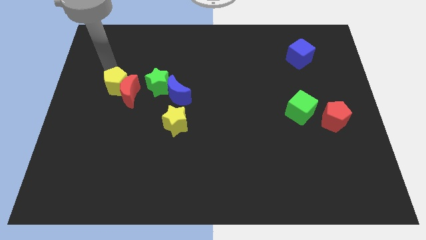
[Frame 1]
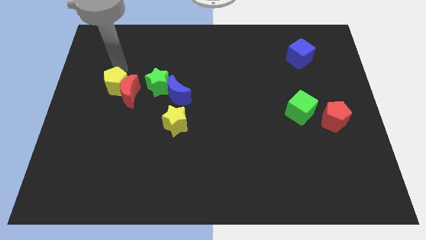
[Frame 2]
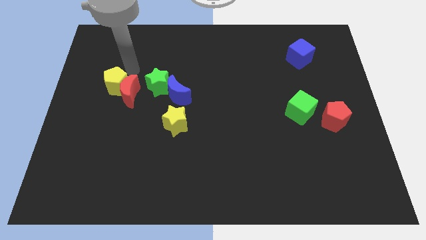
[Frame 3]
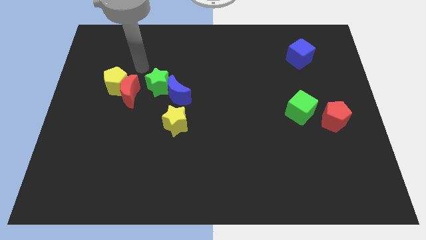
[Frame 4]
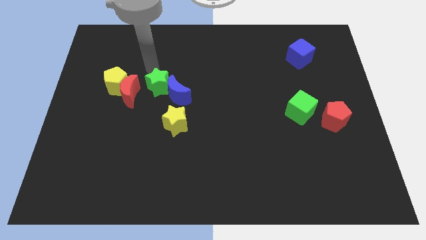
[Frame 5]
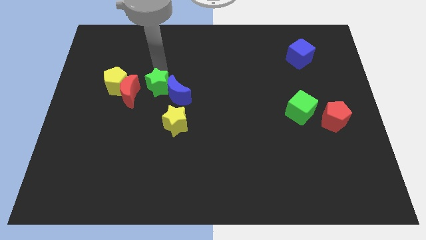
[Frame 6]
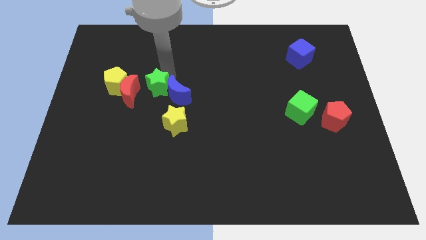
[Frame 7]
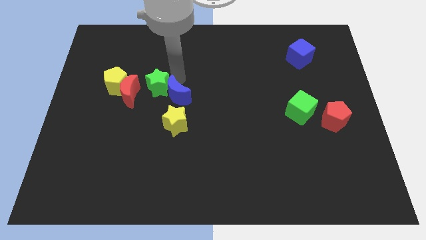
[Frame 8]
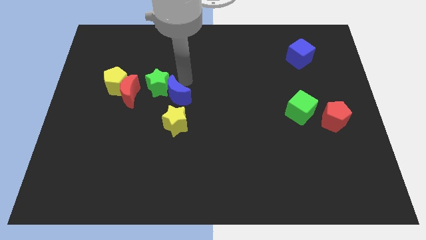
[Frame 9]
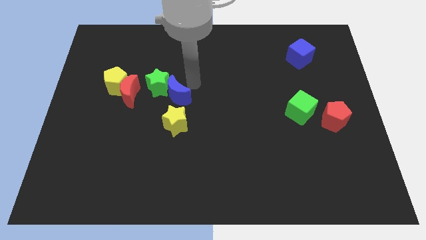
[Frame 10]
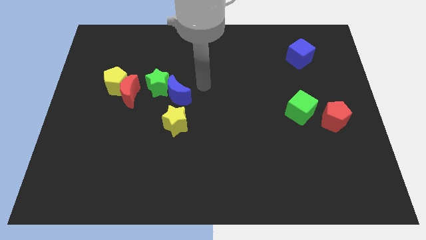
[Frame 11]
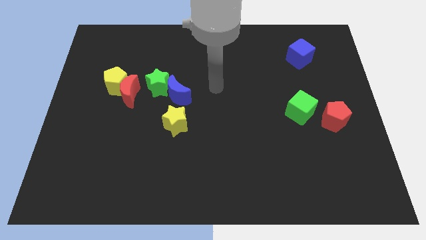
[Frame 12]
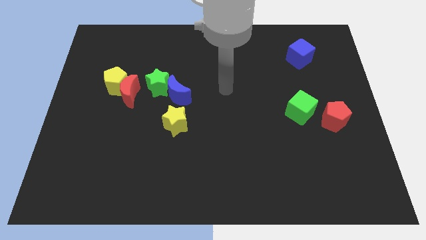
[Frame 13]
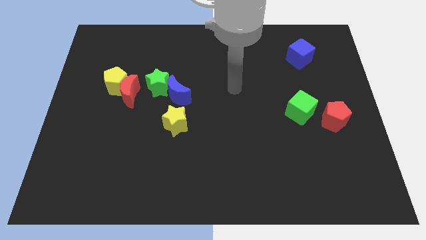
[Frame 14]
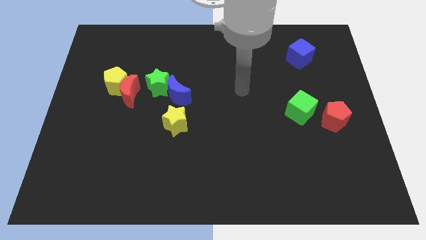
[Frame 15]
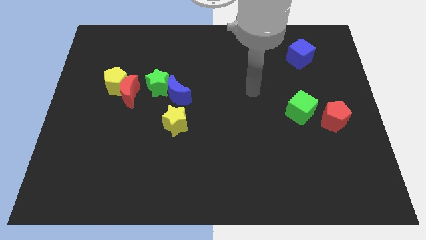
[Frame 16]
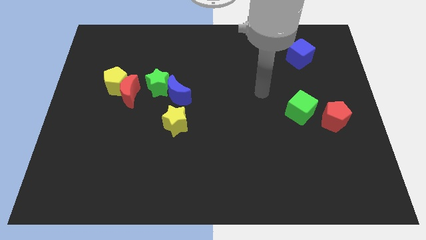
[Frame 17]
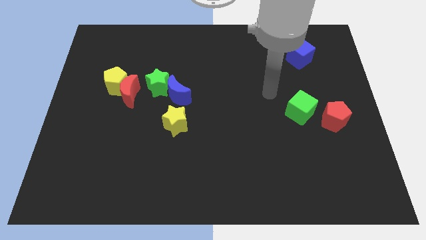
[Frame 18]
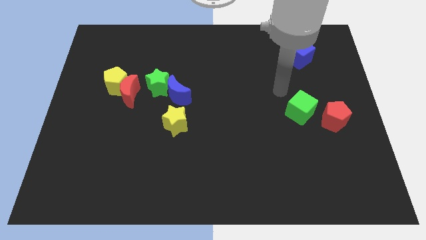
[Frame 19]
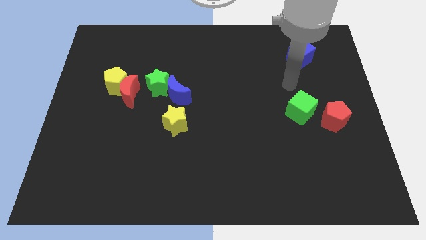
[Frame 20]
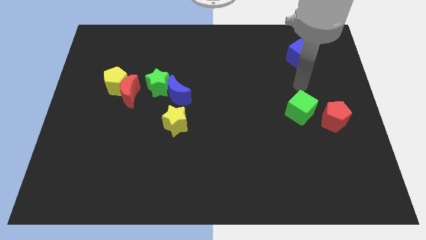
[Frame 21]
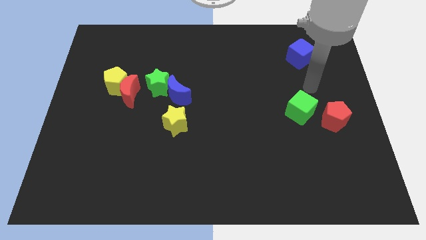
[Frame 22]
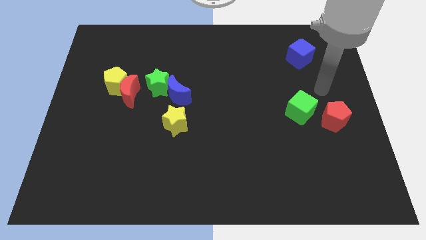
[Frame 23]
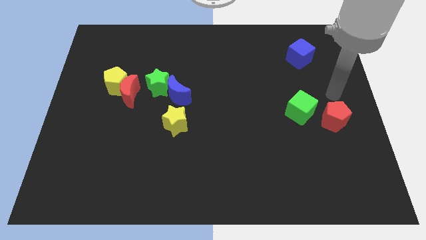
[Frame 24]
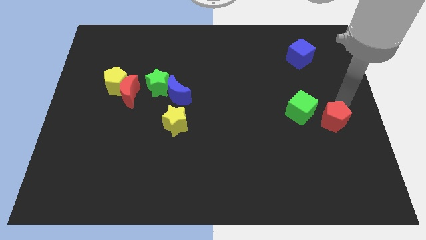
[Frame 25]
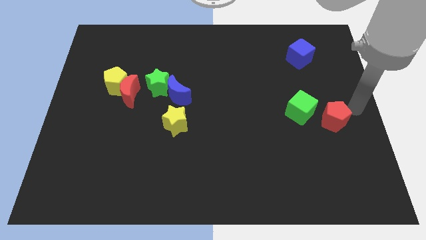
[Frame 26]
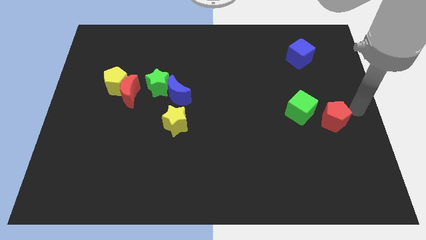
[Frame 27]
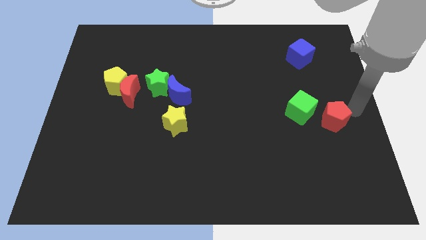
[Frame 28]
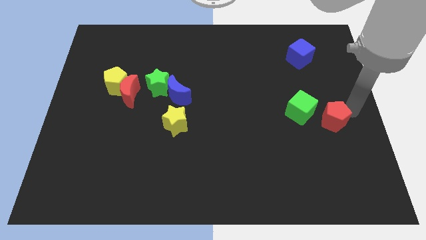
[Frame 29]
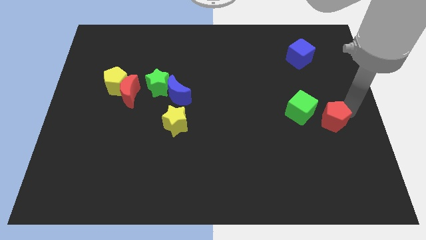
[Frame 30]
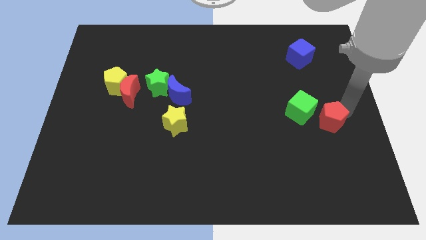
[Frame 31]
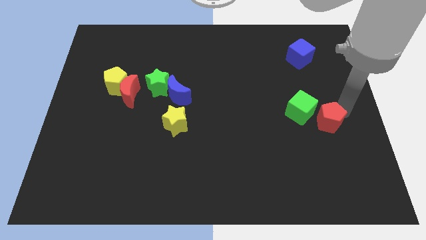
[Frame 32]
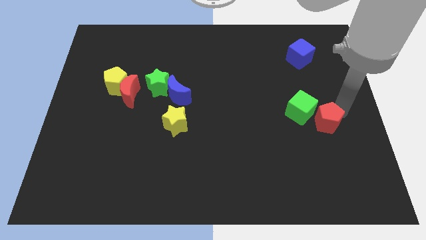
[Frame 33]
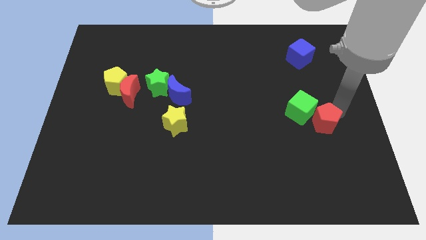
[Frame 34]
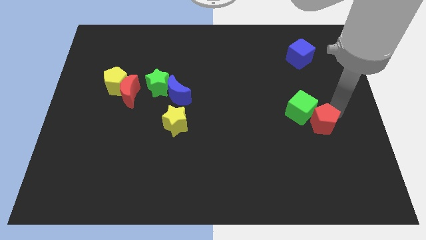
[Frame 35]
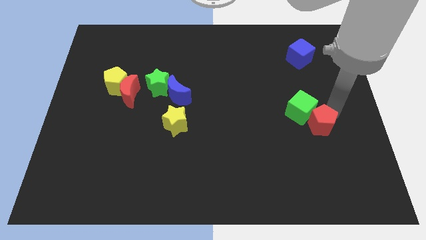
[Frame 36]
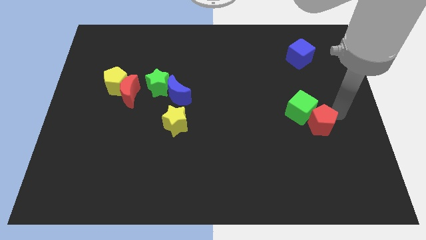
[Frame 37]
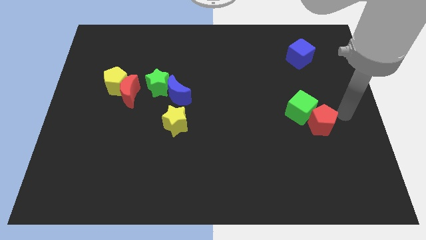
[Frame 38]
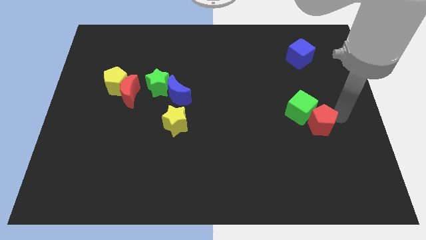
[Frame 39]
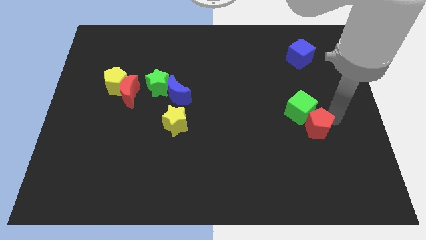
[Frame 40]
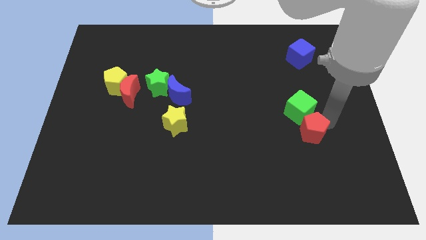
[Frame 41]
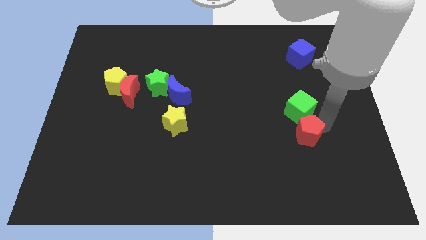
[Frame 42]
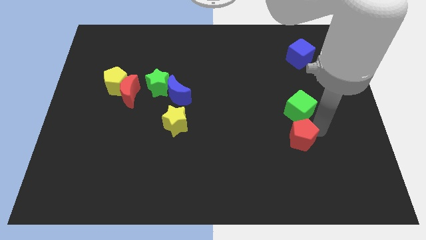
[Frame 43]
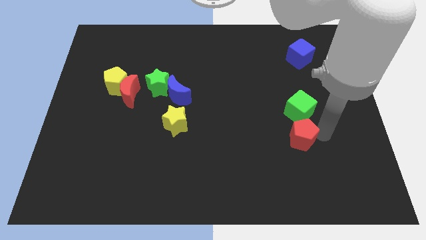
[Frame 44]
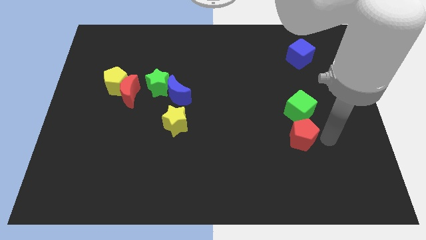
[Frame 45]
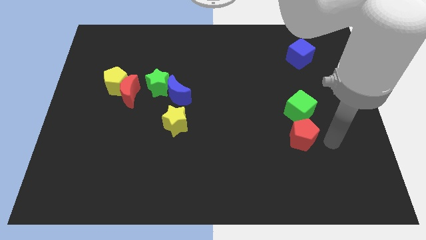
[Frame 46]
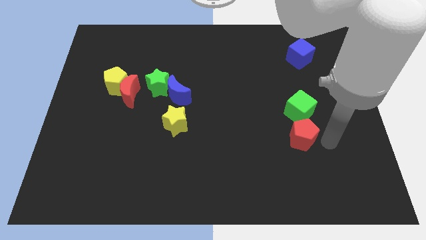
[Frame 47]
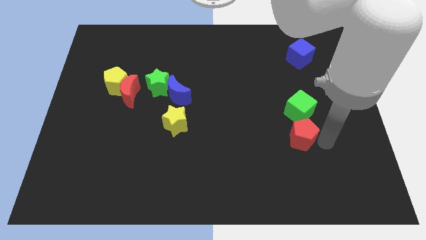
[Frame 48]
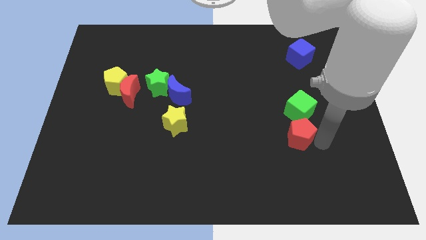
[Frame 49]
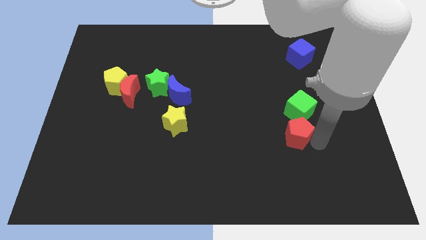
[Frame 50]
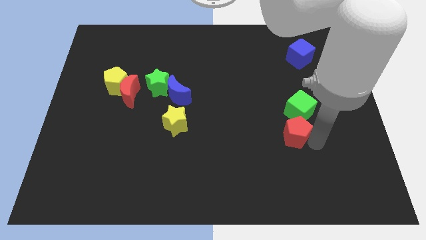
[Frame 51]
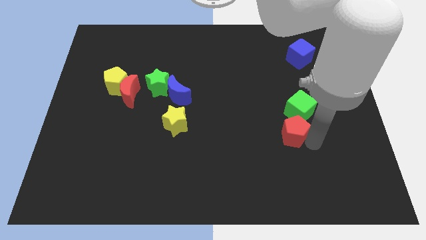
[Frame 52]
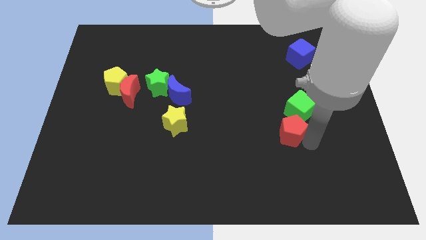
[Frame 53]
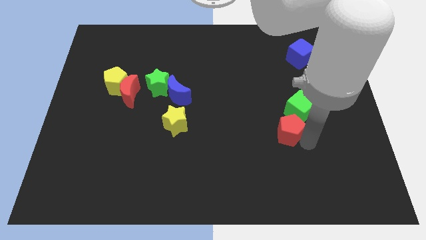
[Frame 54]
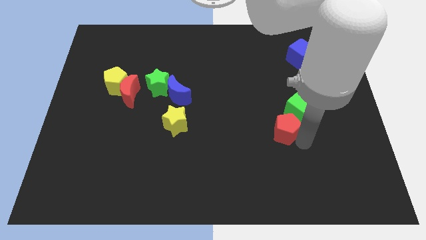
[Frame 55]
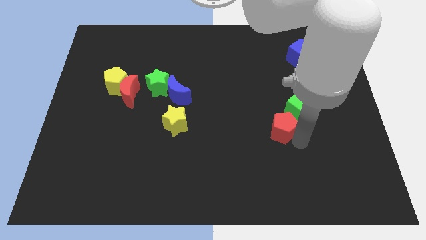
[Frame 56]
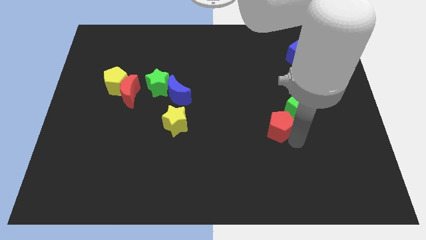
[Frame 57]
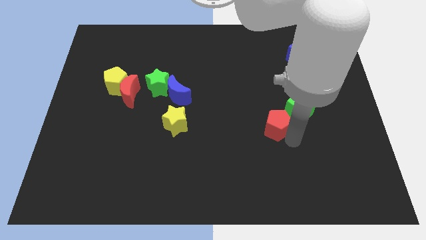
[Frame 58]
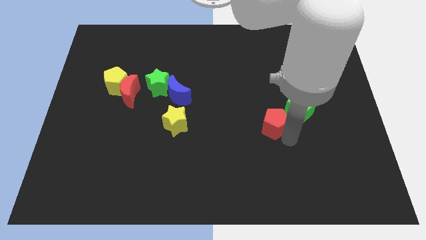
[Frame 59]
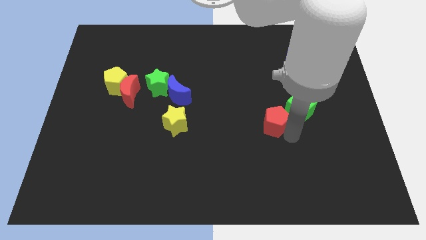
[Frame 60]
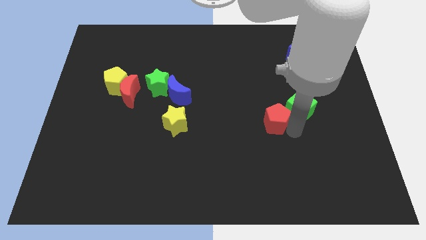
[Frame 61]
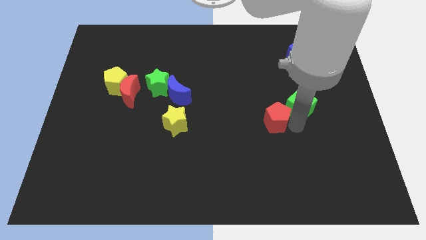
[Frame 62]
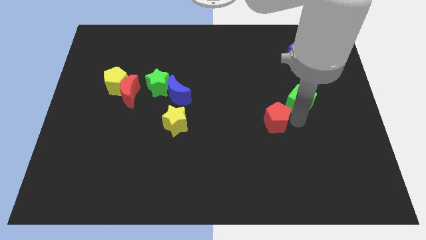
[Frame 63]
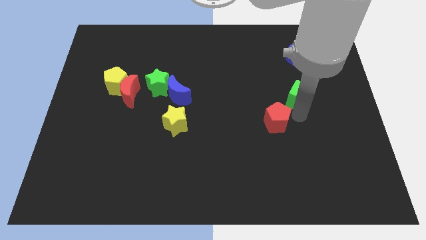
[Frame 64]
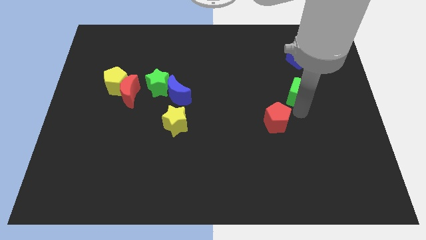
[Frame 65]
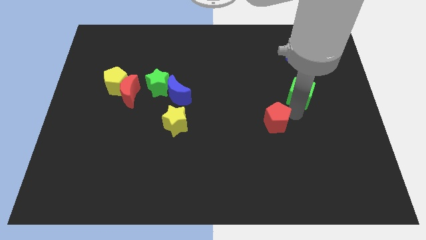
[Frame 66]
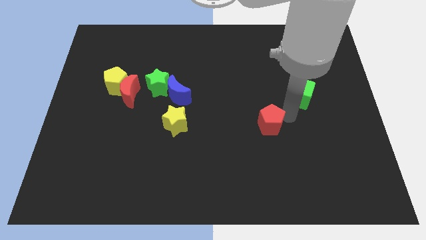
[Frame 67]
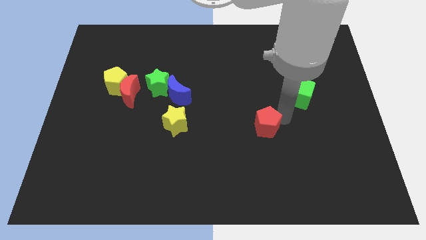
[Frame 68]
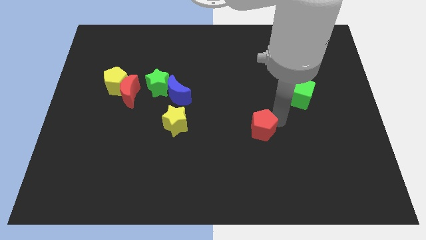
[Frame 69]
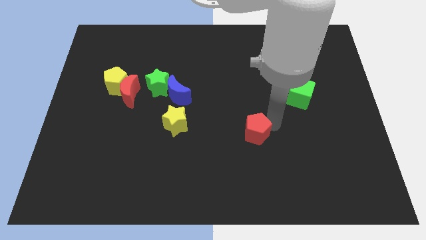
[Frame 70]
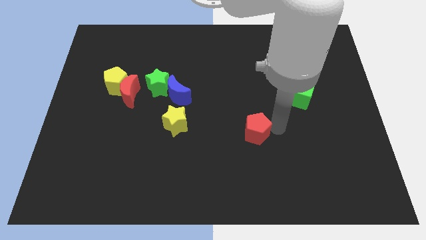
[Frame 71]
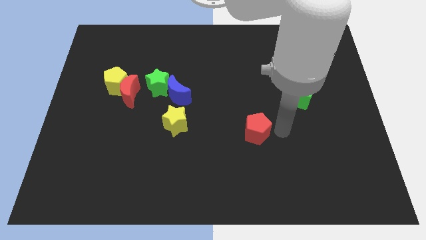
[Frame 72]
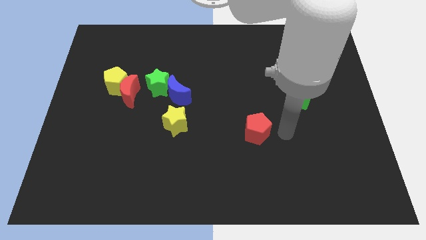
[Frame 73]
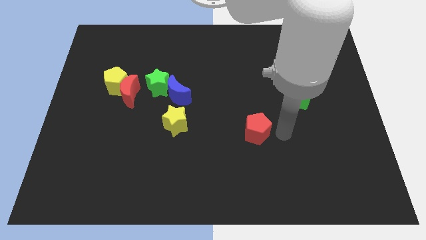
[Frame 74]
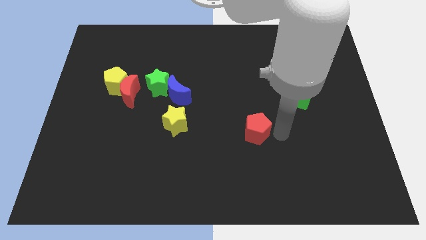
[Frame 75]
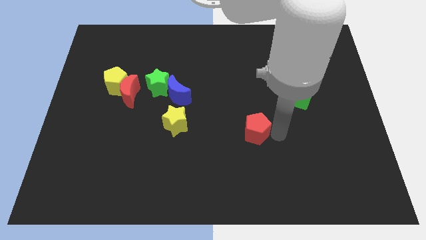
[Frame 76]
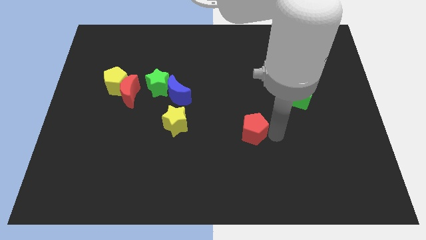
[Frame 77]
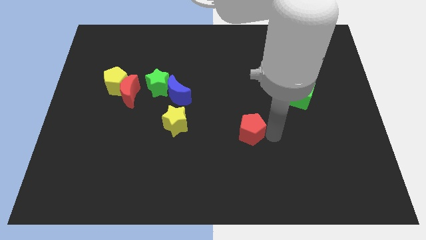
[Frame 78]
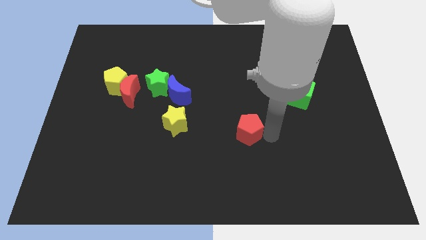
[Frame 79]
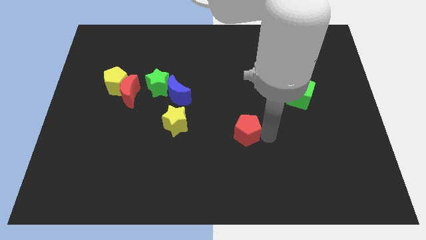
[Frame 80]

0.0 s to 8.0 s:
push the red pentagon to the left
